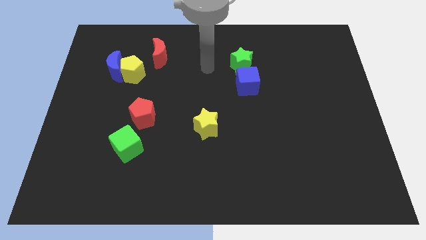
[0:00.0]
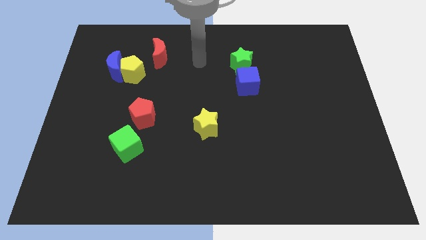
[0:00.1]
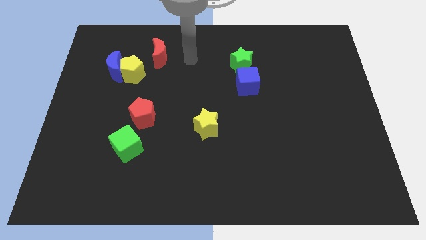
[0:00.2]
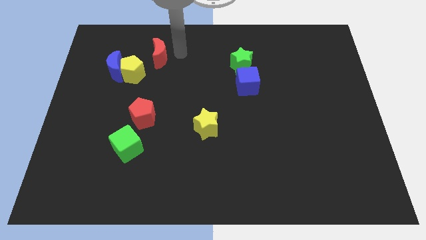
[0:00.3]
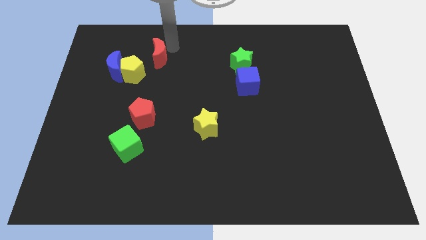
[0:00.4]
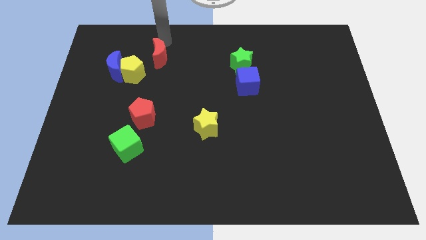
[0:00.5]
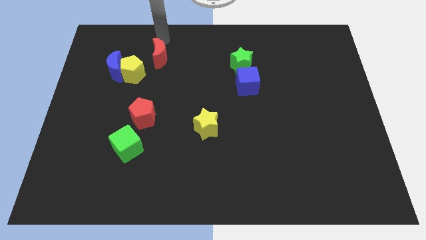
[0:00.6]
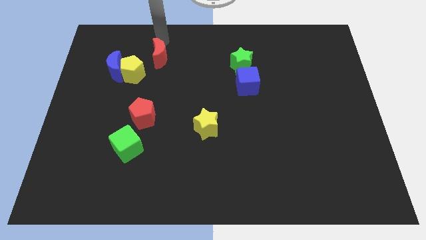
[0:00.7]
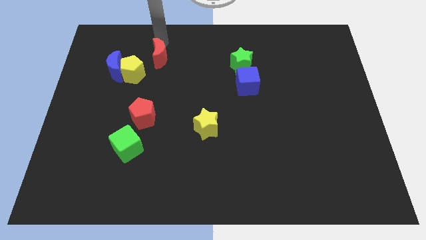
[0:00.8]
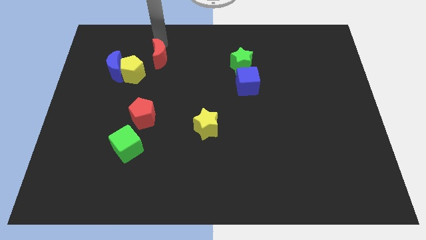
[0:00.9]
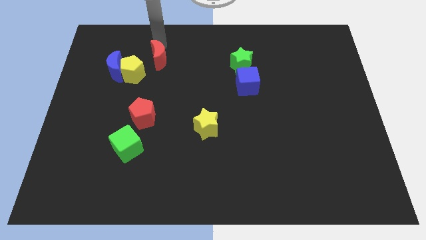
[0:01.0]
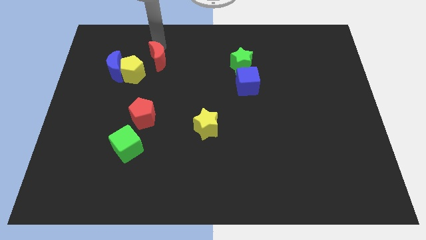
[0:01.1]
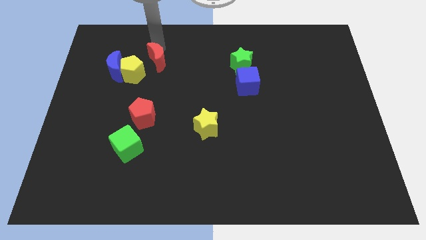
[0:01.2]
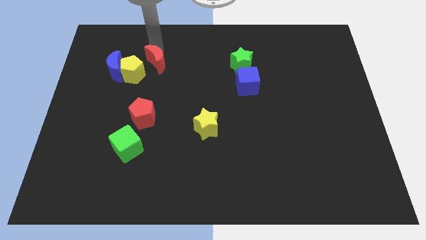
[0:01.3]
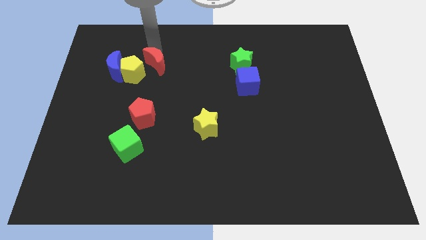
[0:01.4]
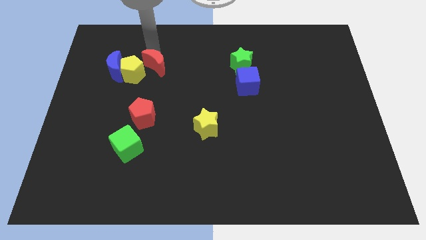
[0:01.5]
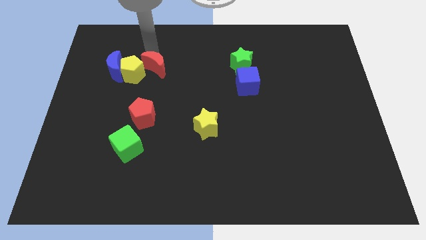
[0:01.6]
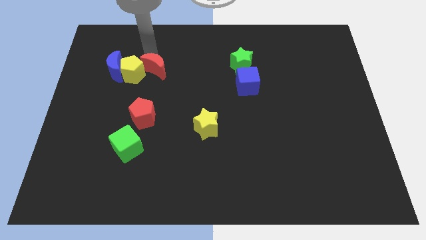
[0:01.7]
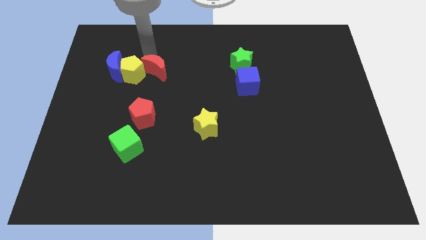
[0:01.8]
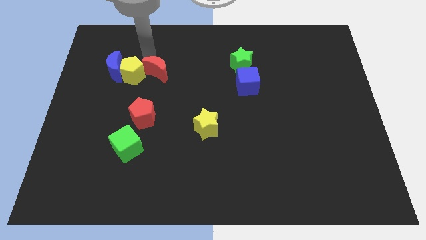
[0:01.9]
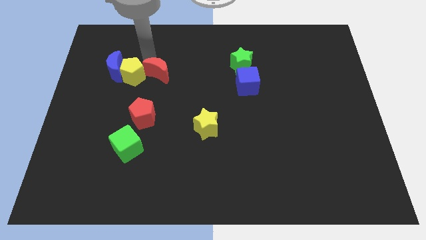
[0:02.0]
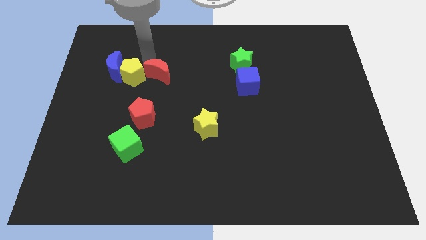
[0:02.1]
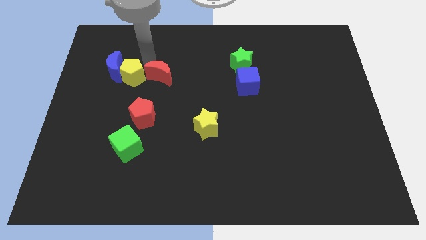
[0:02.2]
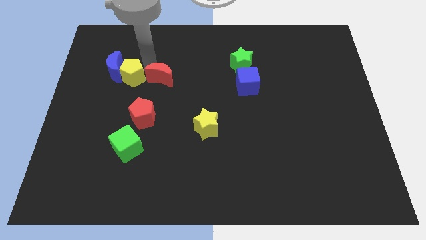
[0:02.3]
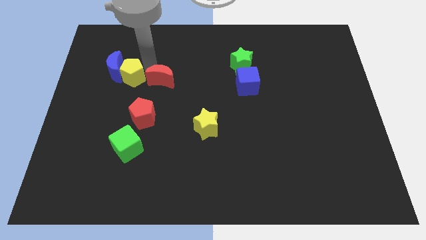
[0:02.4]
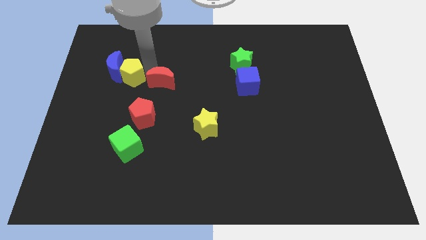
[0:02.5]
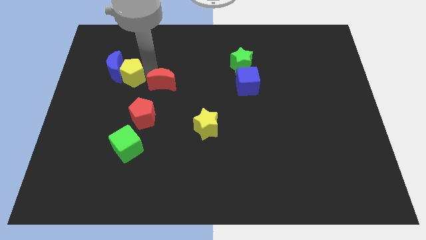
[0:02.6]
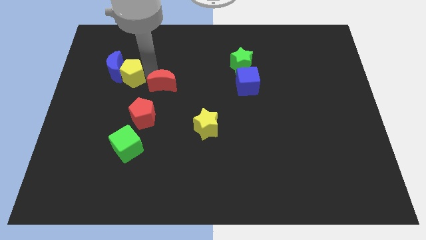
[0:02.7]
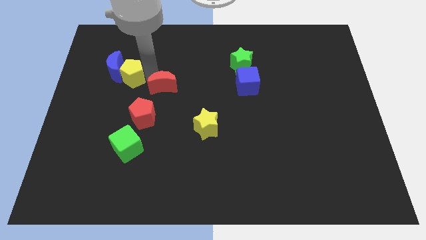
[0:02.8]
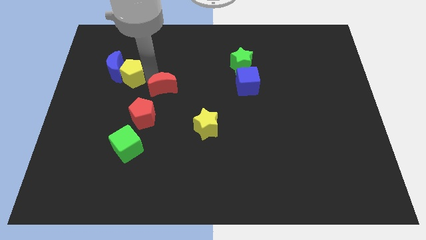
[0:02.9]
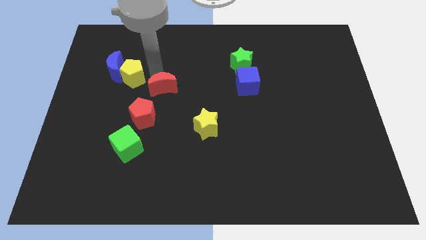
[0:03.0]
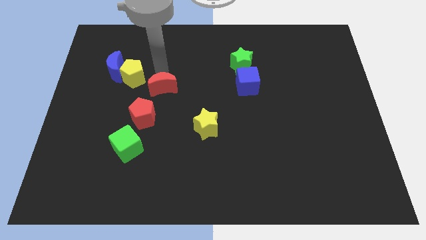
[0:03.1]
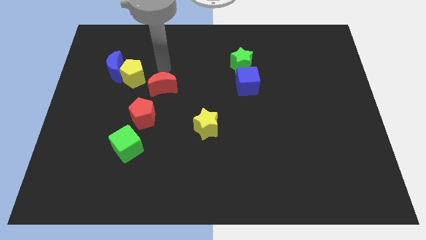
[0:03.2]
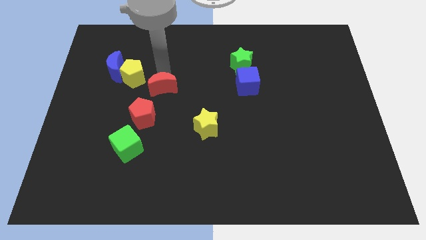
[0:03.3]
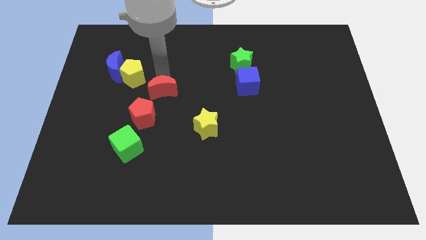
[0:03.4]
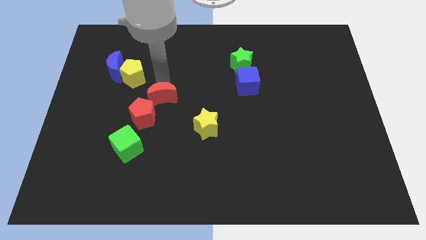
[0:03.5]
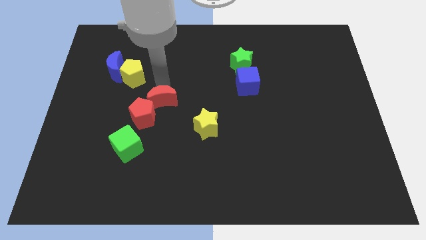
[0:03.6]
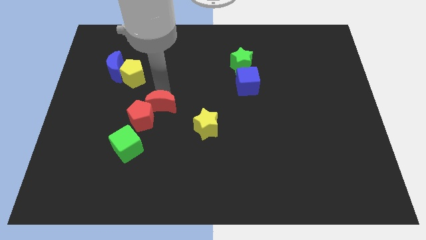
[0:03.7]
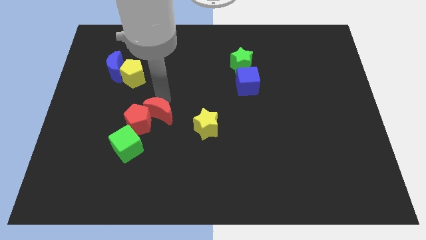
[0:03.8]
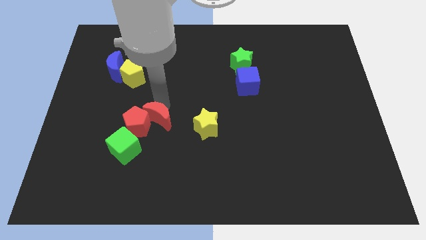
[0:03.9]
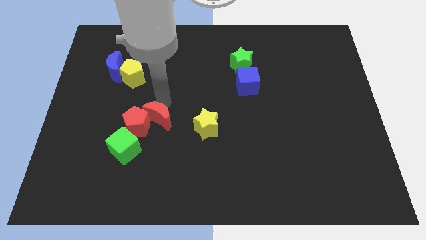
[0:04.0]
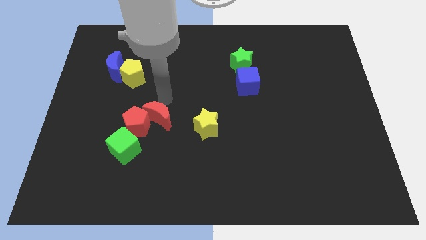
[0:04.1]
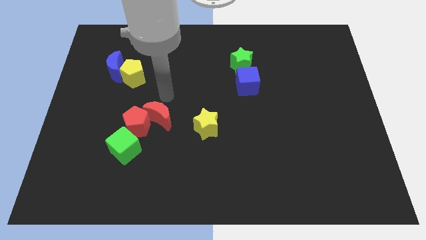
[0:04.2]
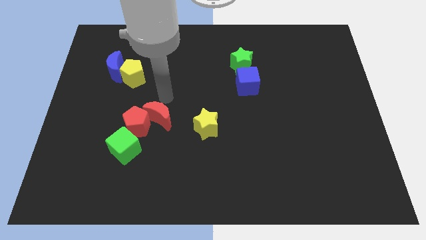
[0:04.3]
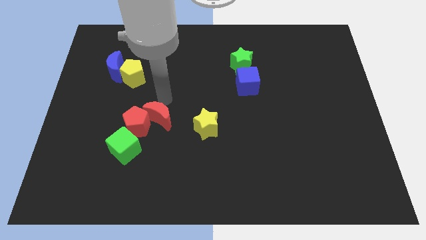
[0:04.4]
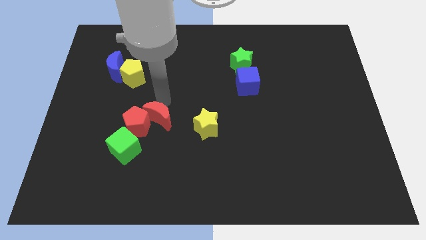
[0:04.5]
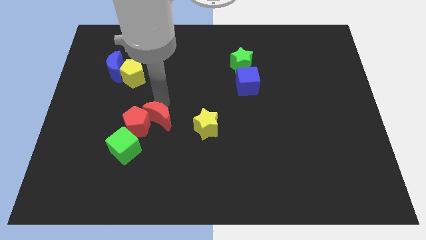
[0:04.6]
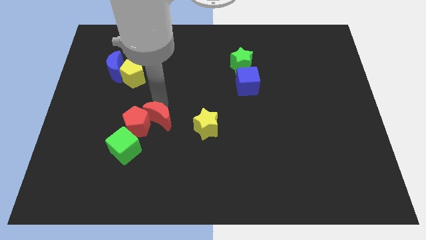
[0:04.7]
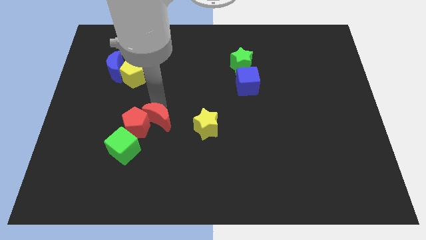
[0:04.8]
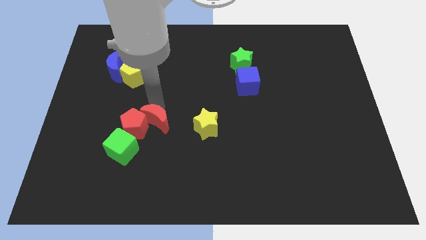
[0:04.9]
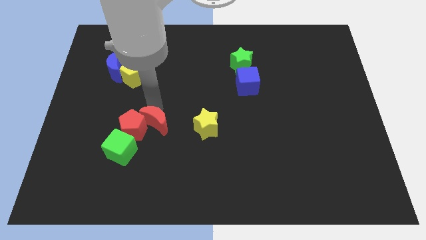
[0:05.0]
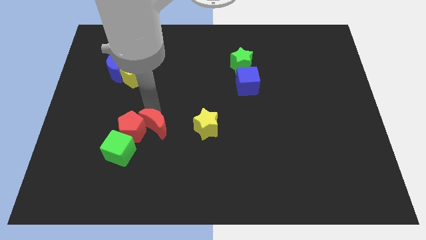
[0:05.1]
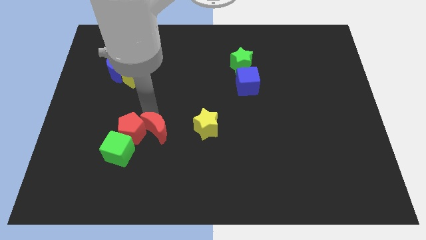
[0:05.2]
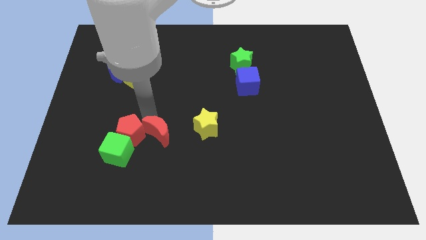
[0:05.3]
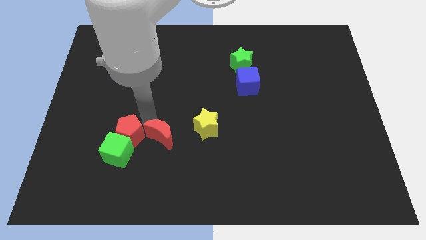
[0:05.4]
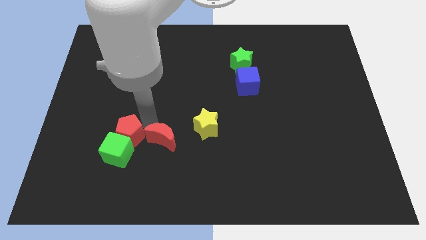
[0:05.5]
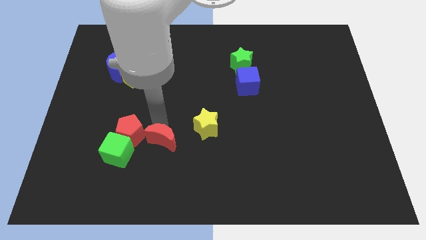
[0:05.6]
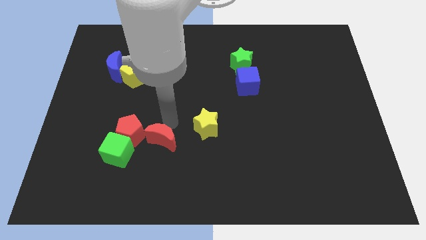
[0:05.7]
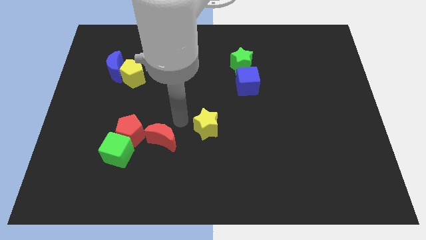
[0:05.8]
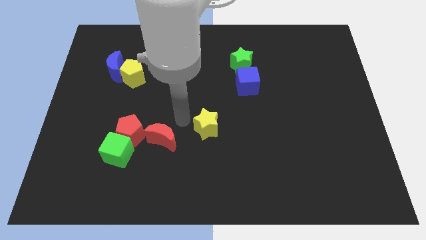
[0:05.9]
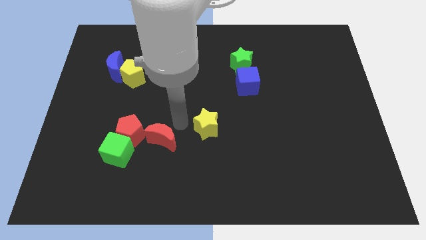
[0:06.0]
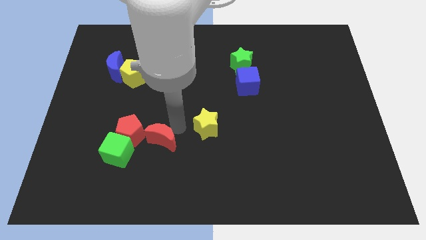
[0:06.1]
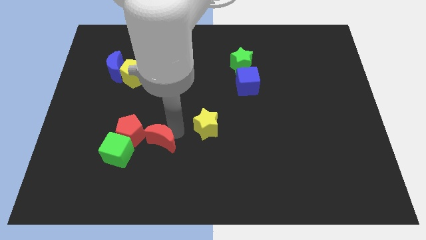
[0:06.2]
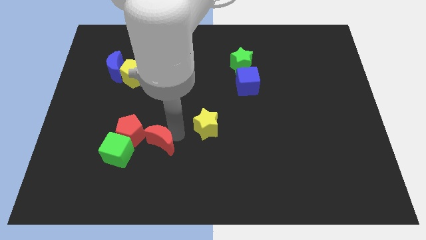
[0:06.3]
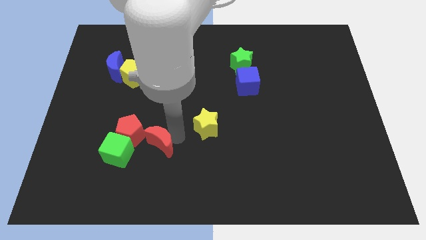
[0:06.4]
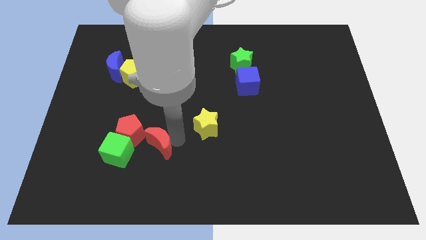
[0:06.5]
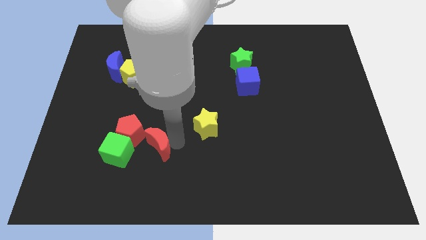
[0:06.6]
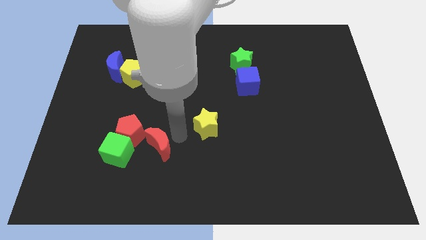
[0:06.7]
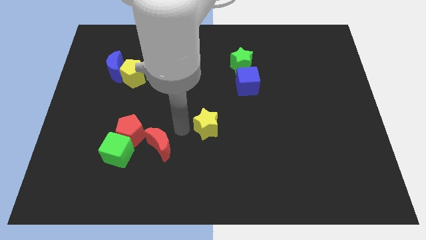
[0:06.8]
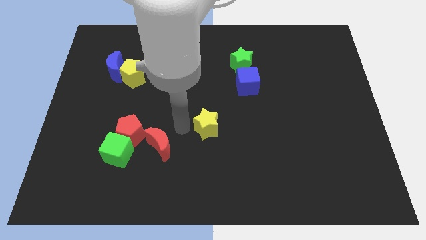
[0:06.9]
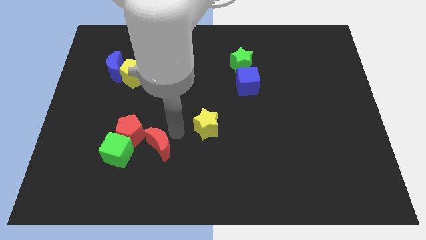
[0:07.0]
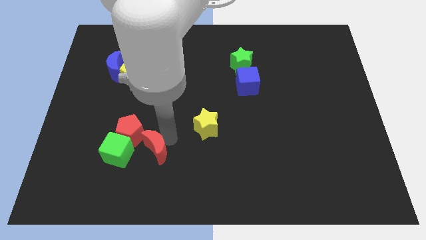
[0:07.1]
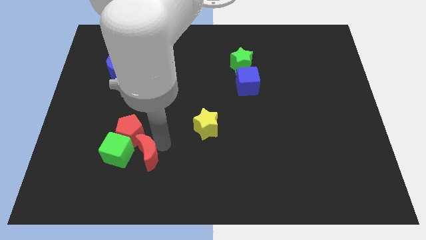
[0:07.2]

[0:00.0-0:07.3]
move the red moon to the bottom of the red pentagon
